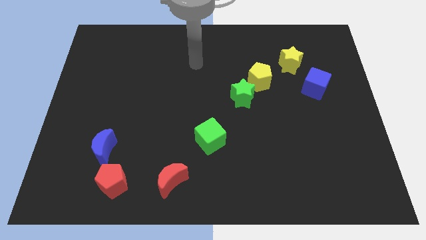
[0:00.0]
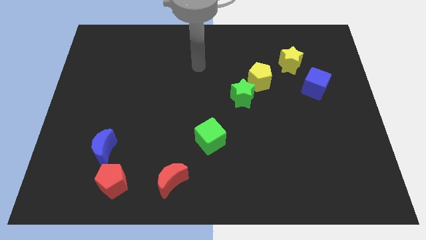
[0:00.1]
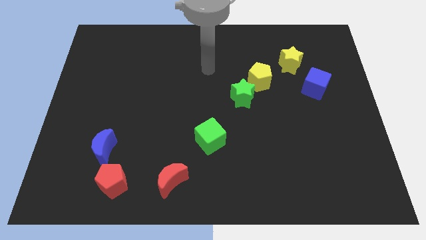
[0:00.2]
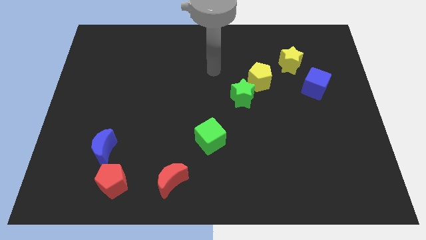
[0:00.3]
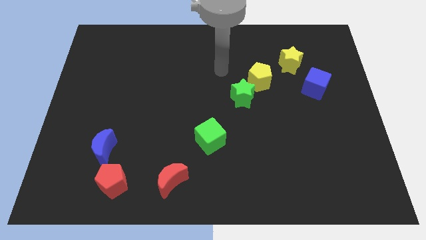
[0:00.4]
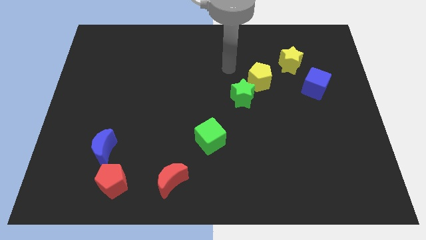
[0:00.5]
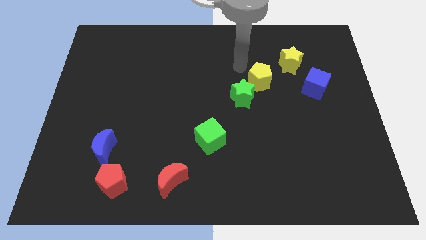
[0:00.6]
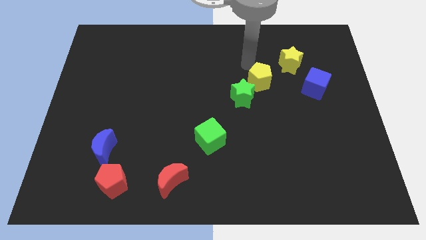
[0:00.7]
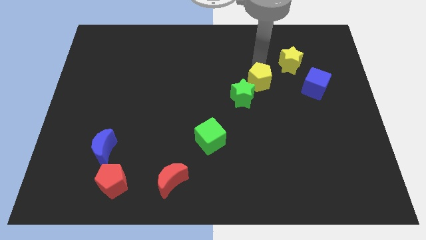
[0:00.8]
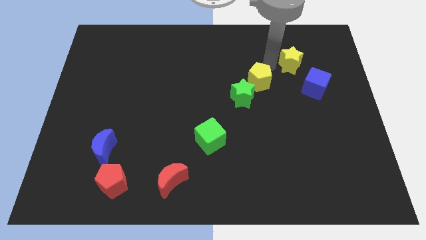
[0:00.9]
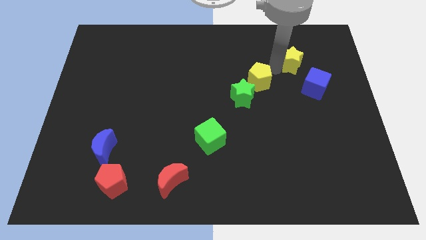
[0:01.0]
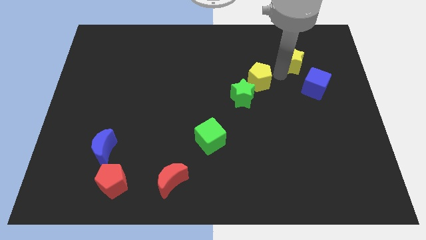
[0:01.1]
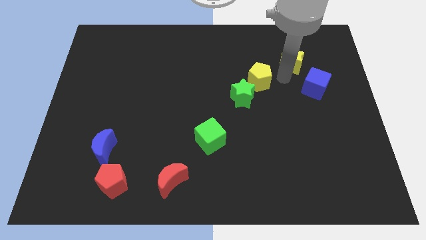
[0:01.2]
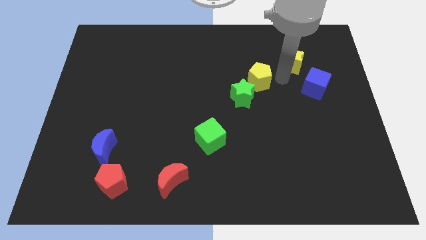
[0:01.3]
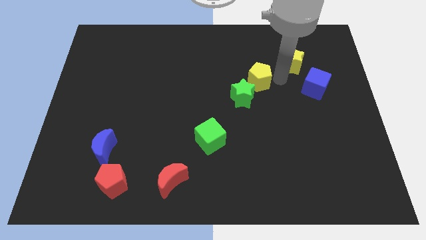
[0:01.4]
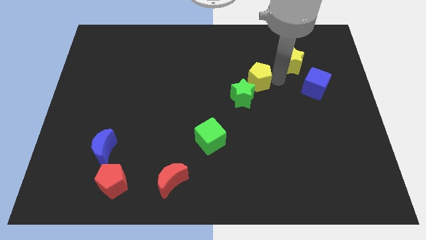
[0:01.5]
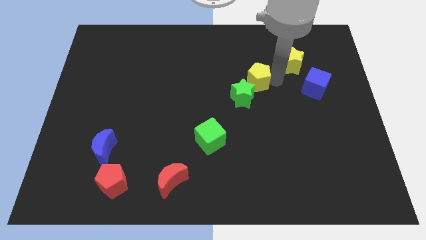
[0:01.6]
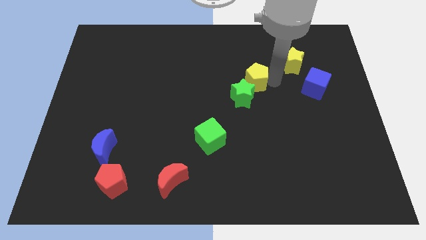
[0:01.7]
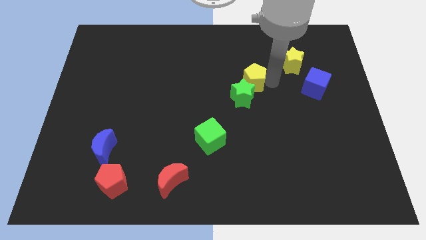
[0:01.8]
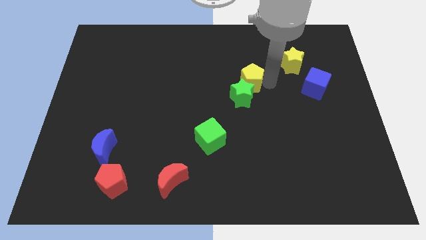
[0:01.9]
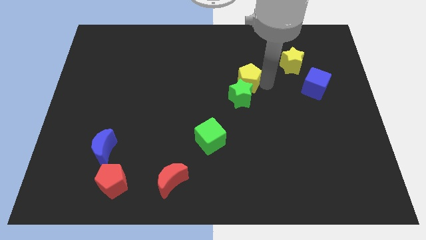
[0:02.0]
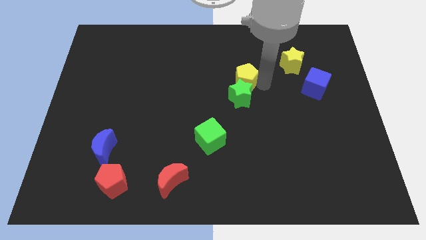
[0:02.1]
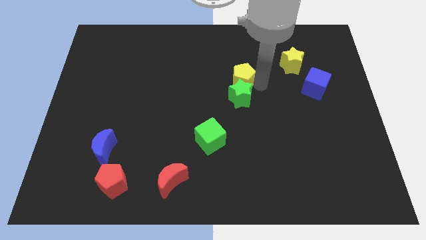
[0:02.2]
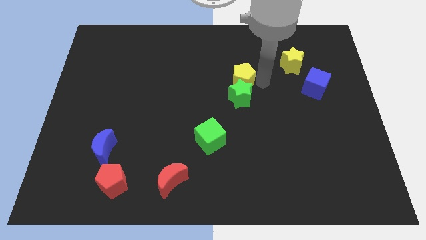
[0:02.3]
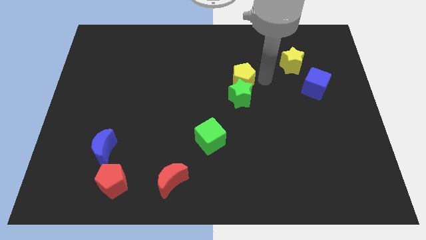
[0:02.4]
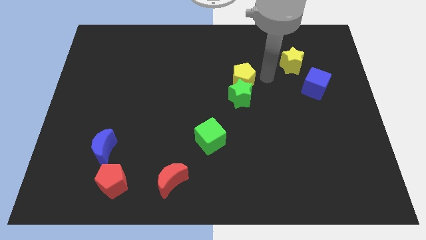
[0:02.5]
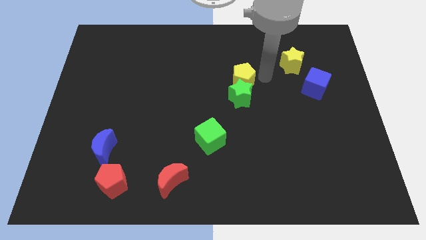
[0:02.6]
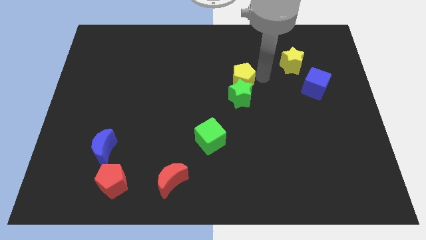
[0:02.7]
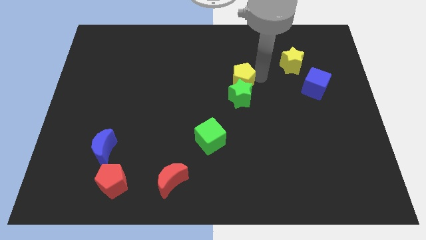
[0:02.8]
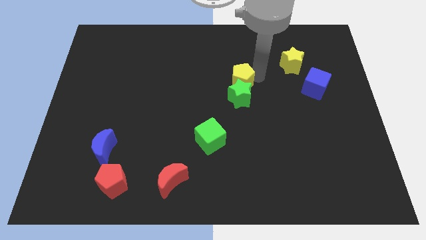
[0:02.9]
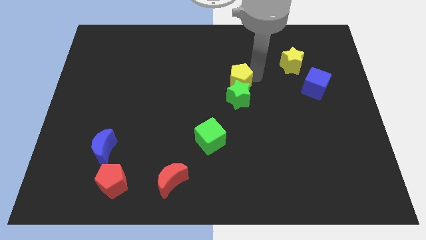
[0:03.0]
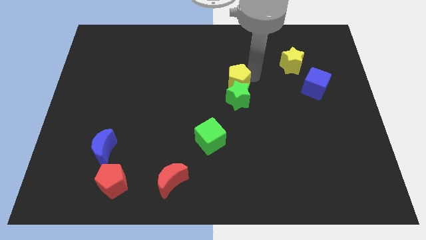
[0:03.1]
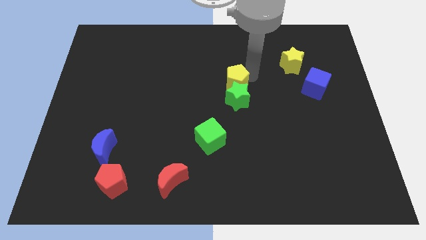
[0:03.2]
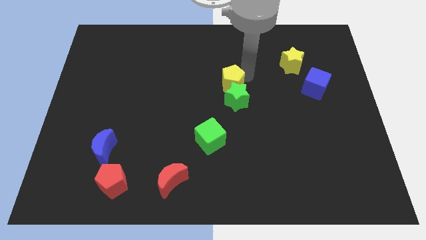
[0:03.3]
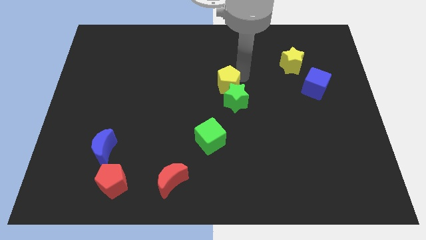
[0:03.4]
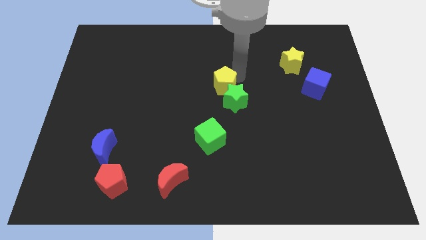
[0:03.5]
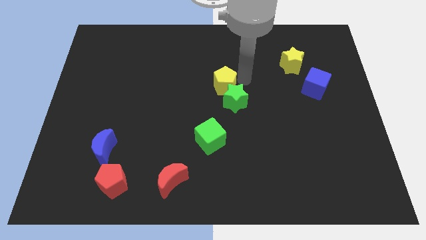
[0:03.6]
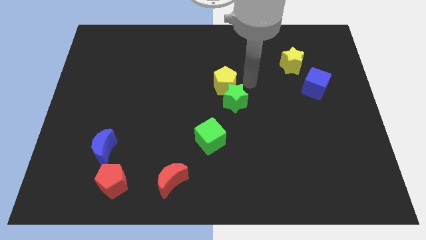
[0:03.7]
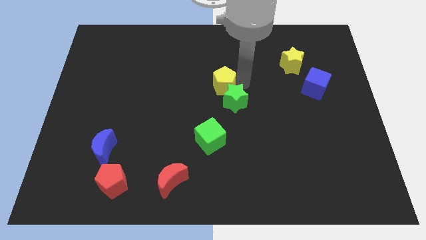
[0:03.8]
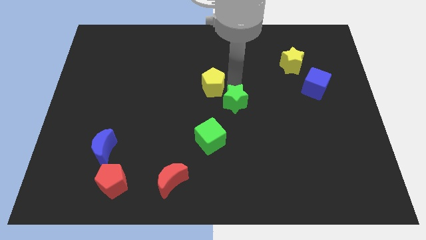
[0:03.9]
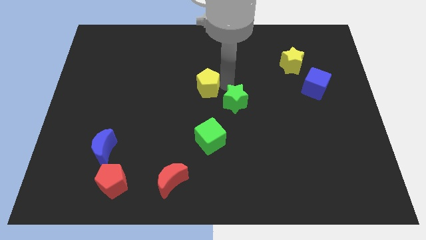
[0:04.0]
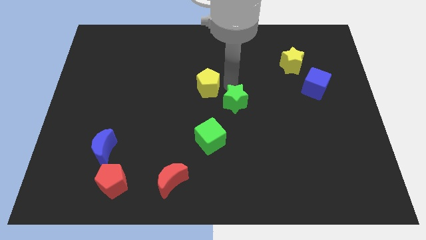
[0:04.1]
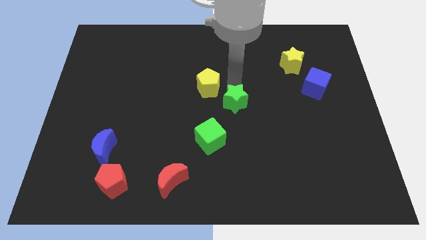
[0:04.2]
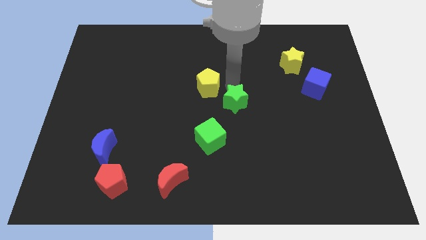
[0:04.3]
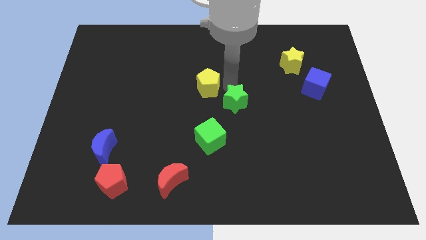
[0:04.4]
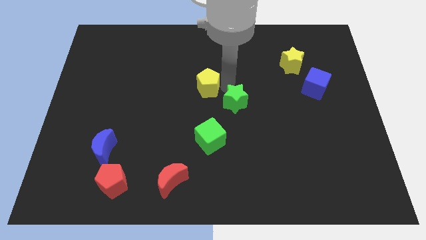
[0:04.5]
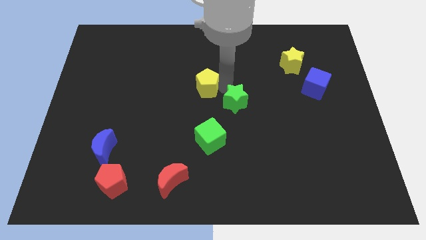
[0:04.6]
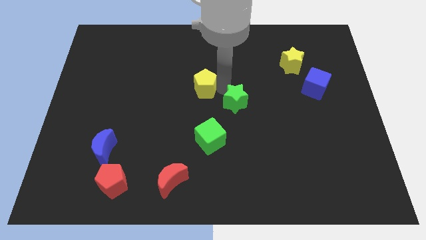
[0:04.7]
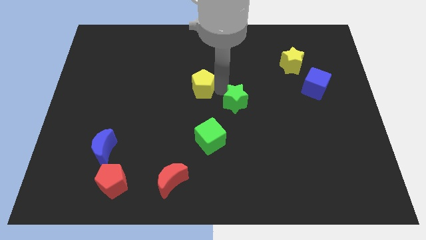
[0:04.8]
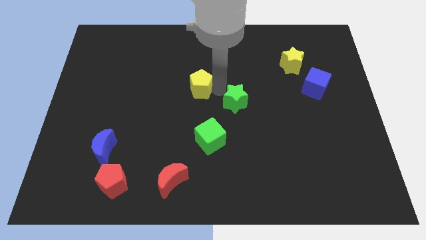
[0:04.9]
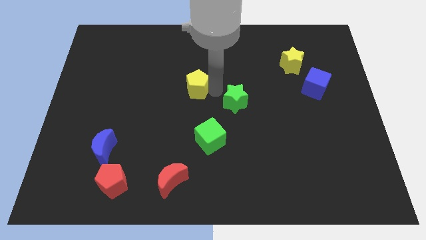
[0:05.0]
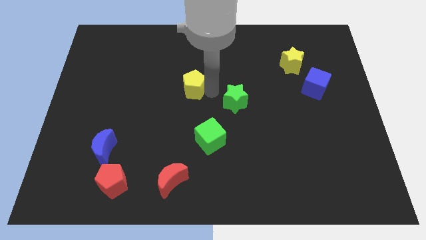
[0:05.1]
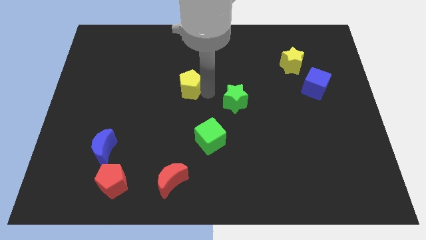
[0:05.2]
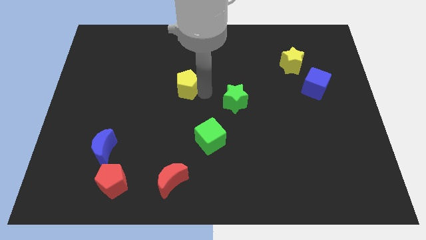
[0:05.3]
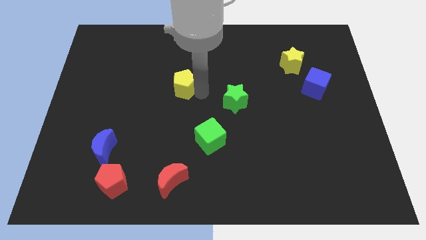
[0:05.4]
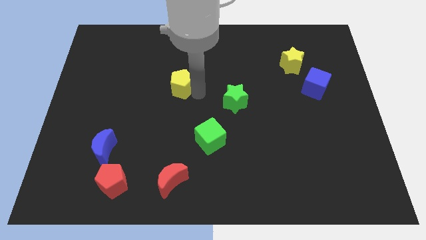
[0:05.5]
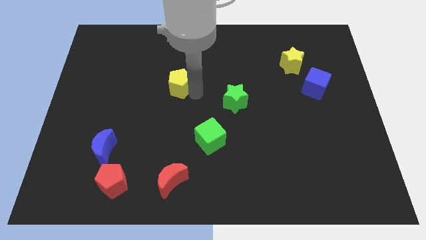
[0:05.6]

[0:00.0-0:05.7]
push the yellow pentagon left

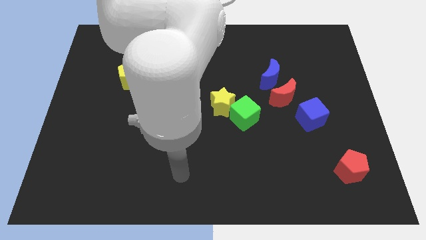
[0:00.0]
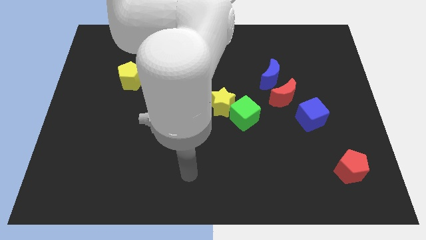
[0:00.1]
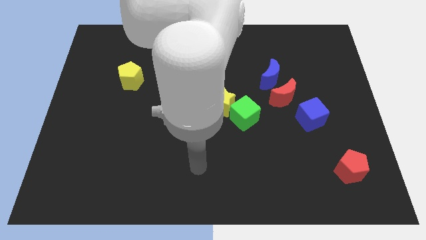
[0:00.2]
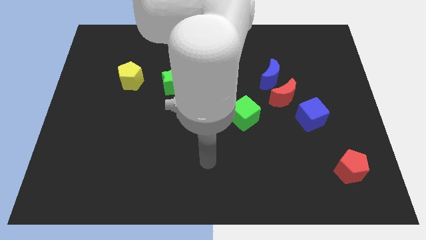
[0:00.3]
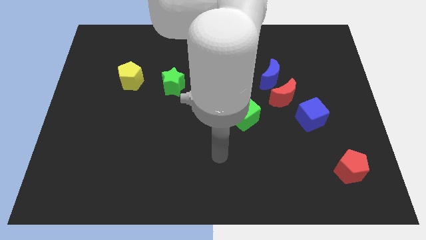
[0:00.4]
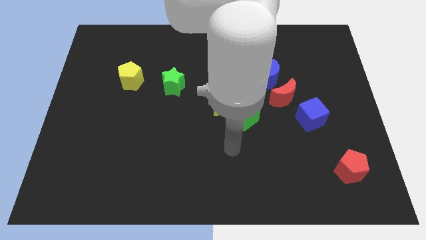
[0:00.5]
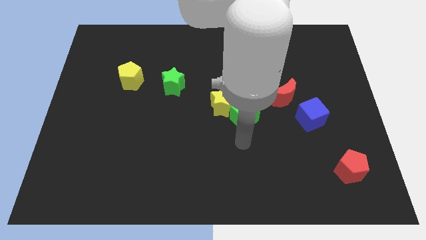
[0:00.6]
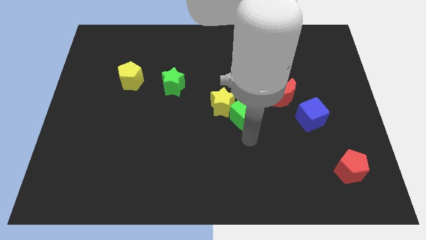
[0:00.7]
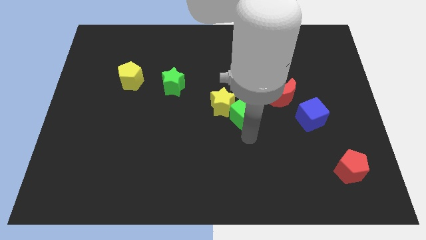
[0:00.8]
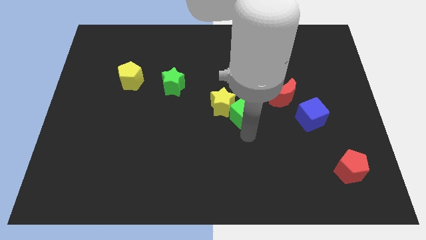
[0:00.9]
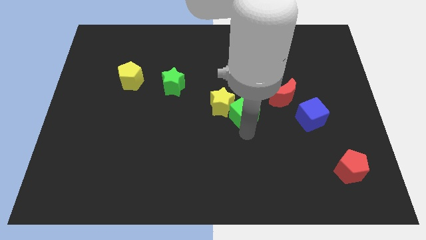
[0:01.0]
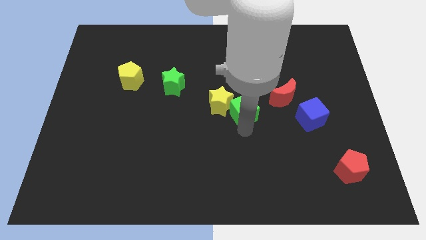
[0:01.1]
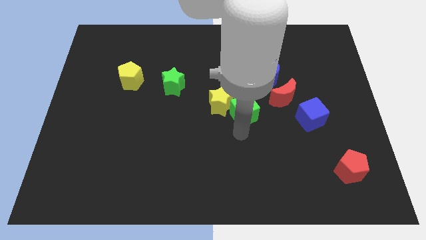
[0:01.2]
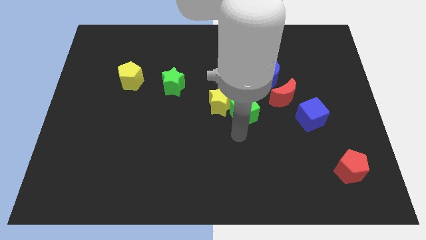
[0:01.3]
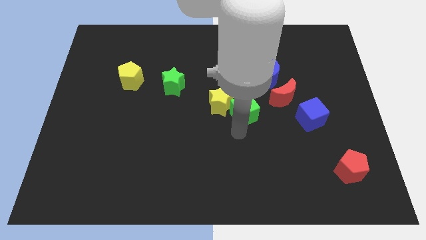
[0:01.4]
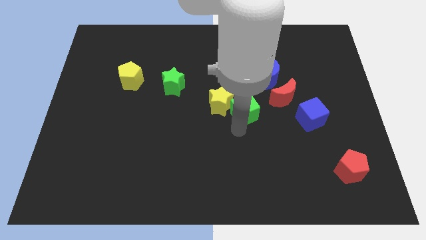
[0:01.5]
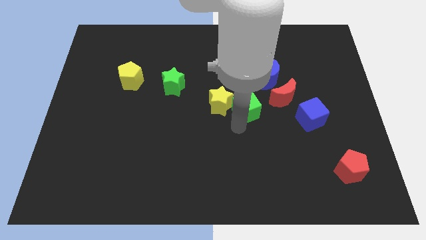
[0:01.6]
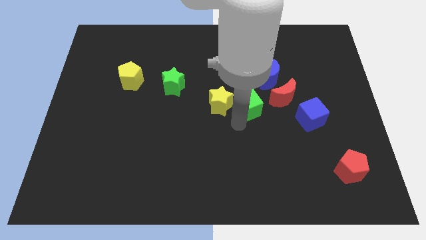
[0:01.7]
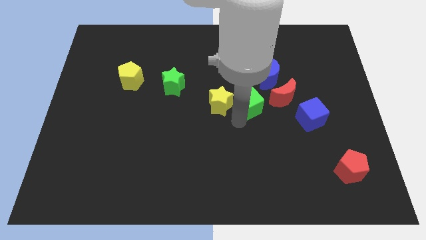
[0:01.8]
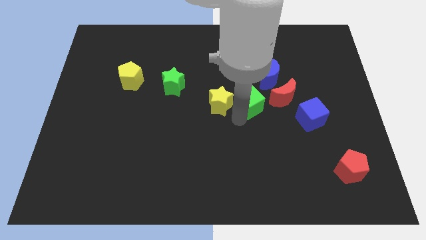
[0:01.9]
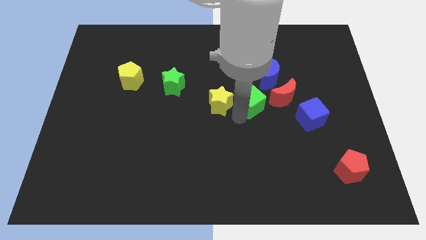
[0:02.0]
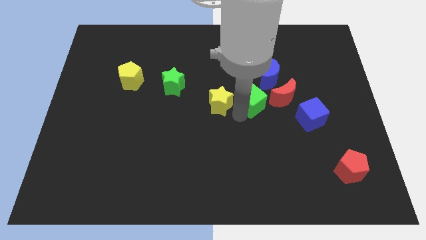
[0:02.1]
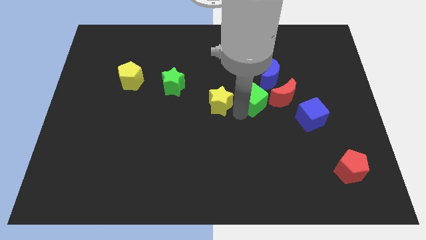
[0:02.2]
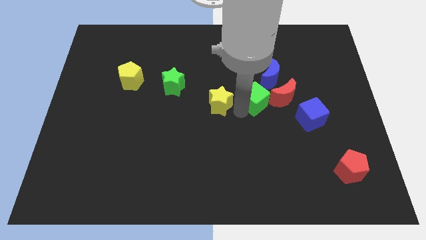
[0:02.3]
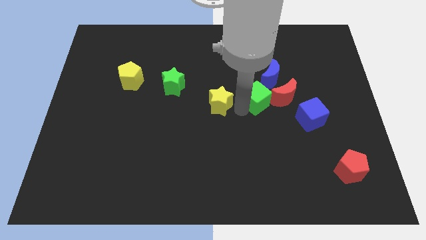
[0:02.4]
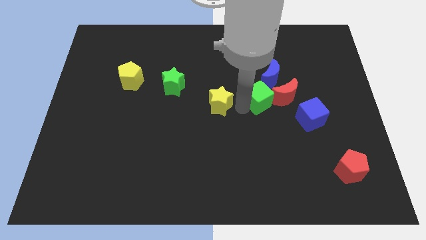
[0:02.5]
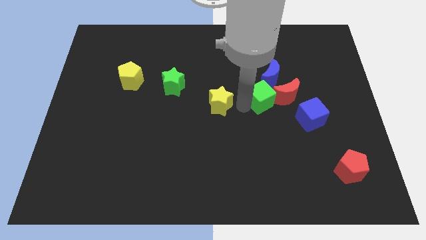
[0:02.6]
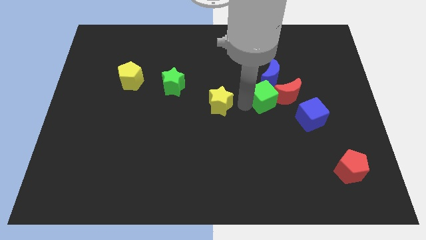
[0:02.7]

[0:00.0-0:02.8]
move the green cube upwards and to the right a little
